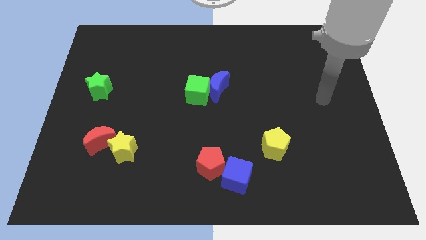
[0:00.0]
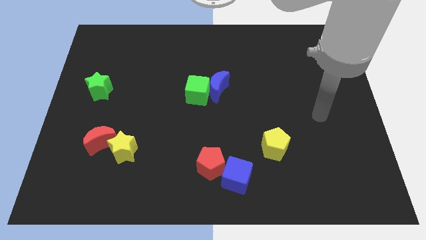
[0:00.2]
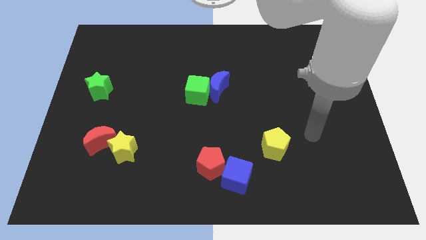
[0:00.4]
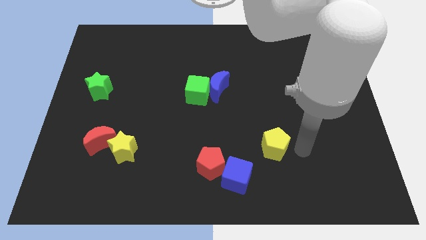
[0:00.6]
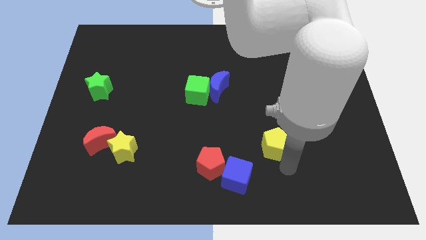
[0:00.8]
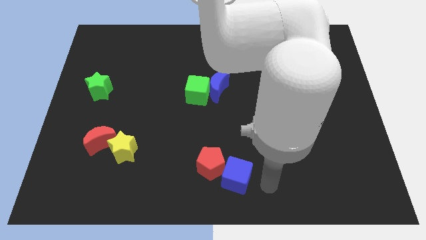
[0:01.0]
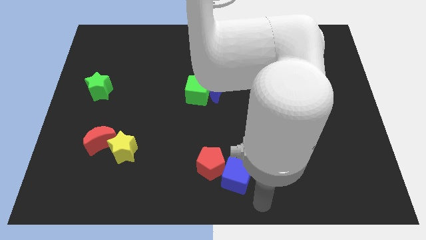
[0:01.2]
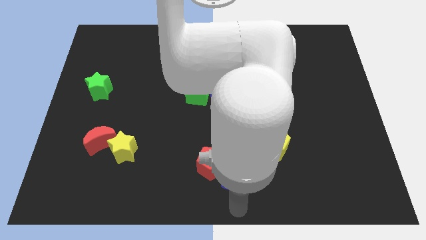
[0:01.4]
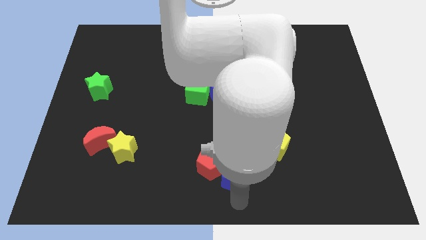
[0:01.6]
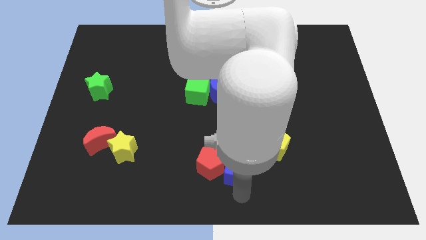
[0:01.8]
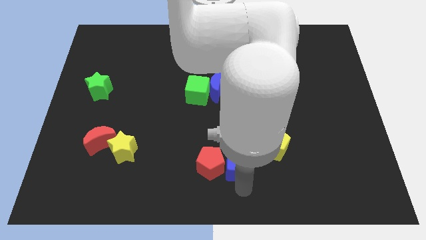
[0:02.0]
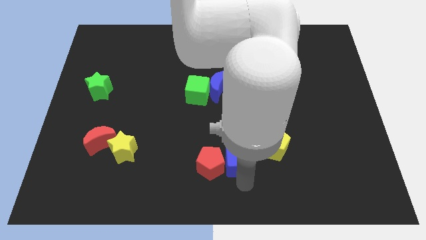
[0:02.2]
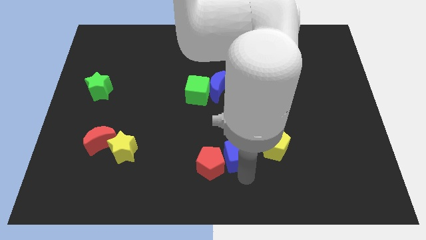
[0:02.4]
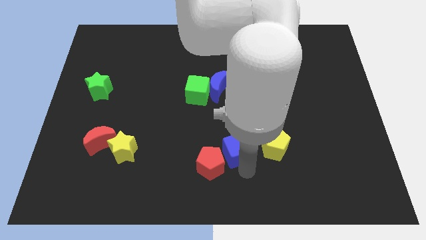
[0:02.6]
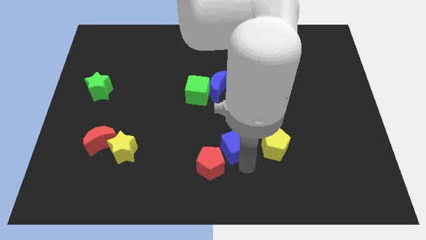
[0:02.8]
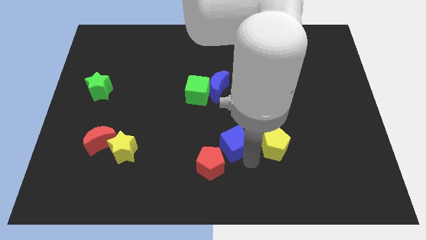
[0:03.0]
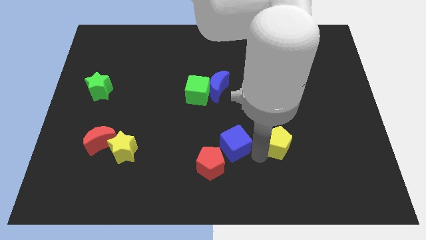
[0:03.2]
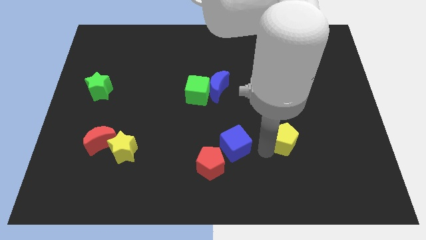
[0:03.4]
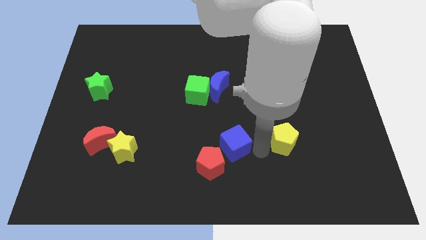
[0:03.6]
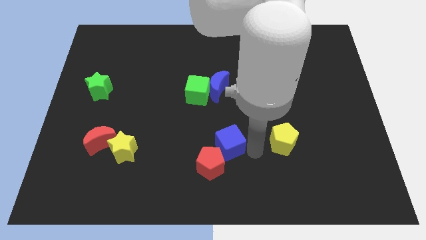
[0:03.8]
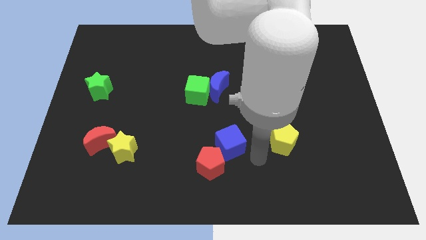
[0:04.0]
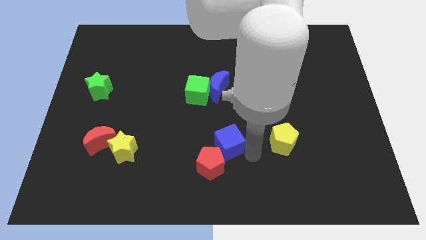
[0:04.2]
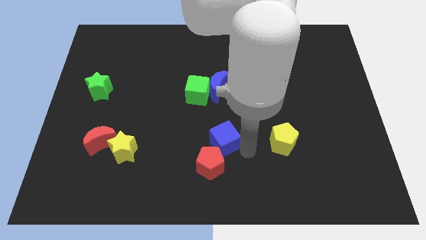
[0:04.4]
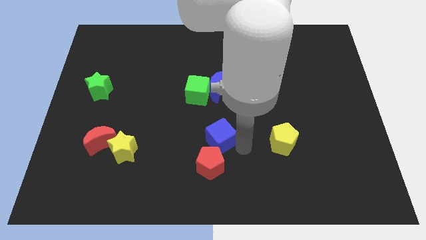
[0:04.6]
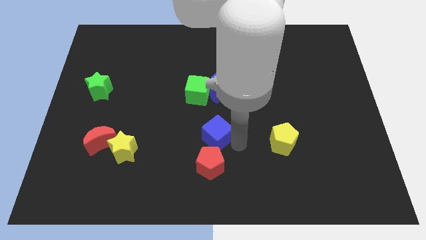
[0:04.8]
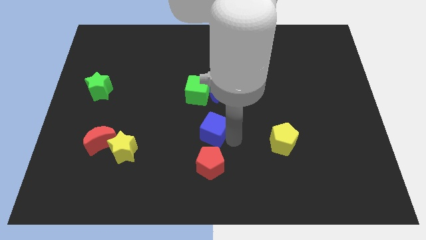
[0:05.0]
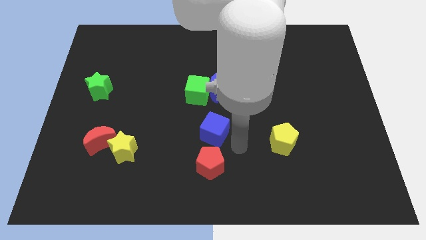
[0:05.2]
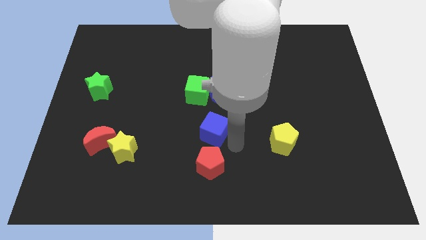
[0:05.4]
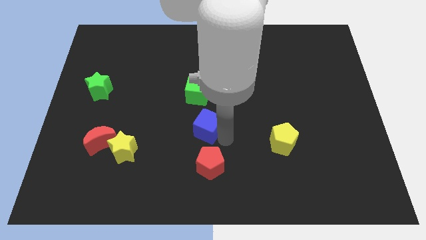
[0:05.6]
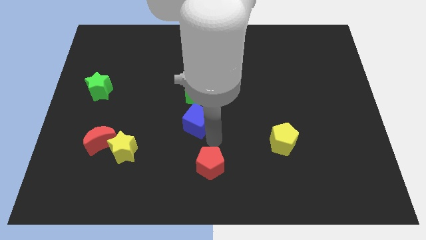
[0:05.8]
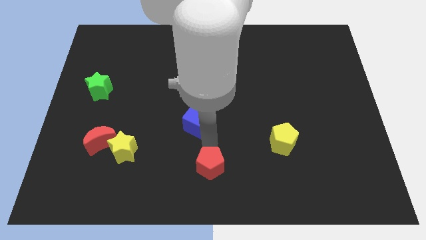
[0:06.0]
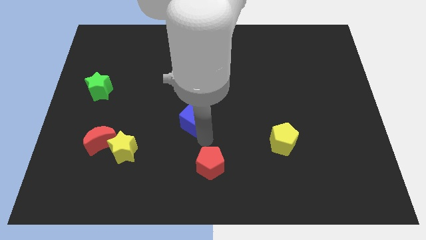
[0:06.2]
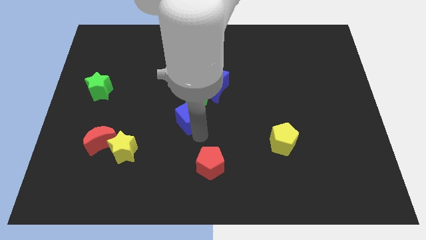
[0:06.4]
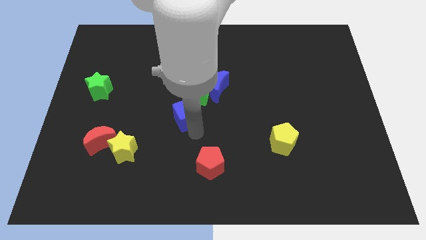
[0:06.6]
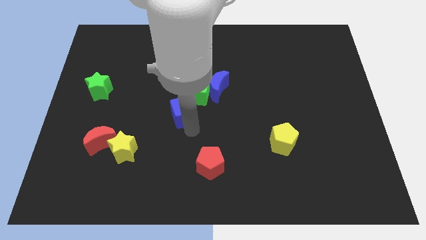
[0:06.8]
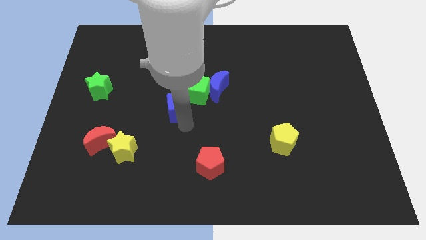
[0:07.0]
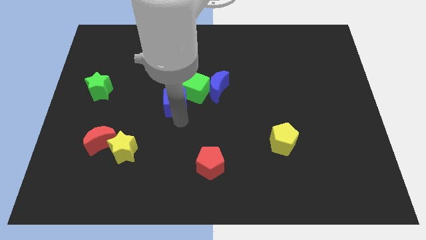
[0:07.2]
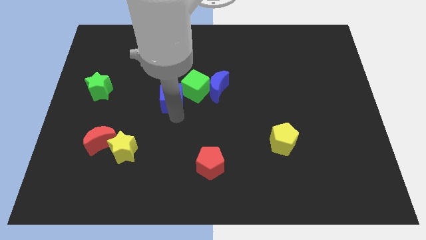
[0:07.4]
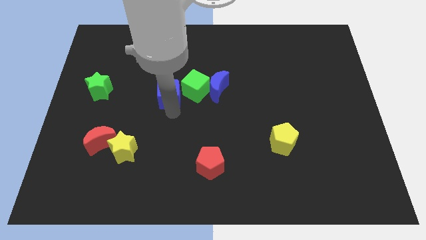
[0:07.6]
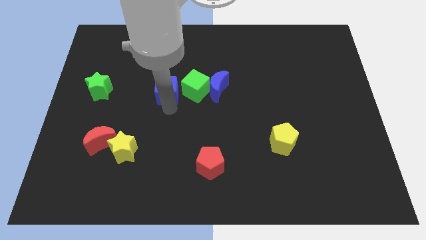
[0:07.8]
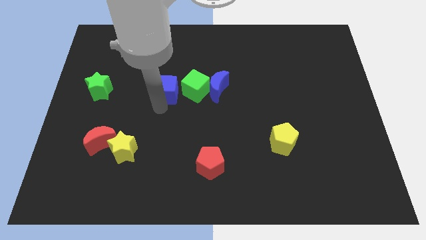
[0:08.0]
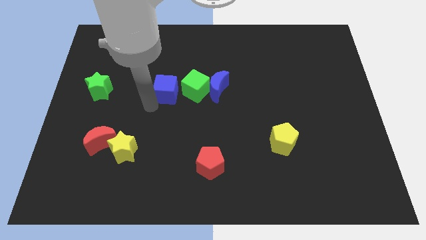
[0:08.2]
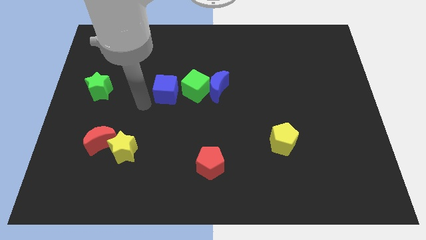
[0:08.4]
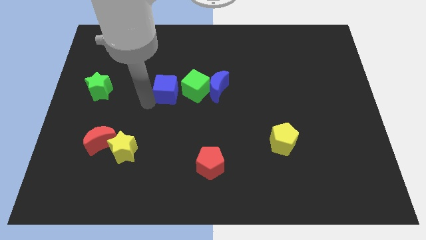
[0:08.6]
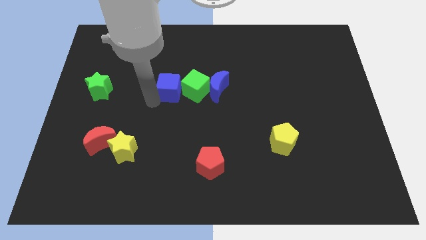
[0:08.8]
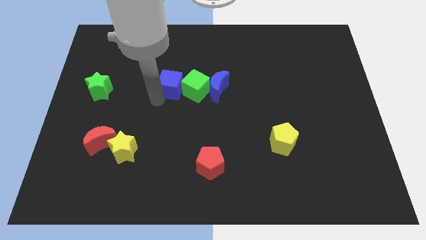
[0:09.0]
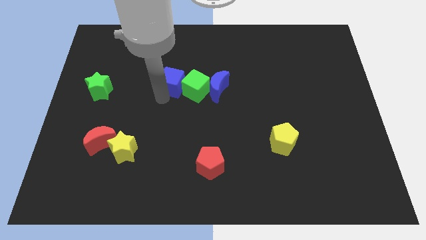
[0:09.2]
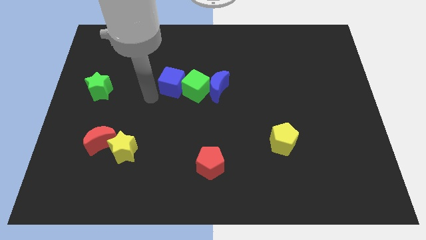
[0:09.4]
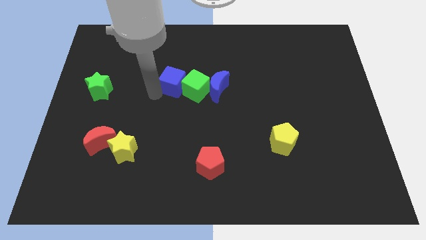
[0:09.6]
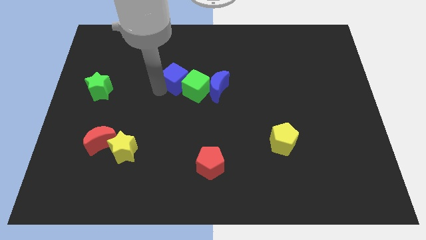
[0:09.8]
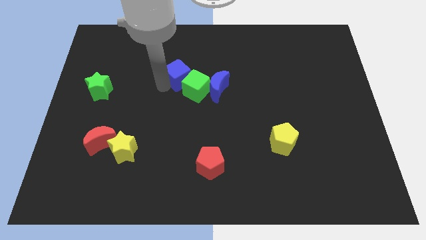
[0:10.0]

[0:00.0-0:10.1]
push the blue cube to the top left of the blue moon

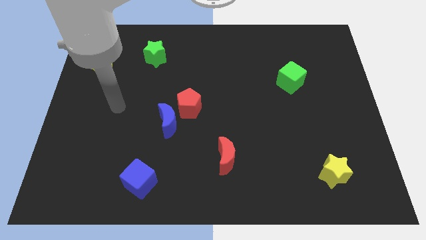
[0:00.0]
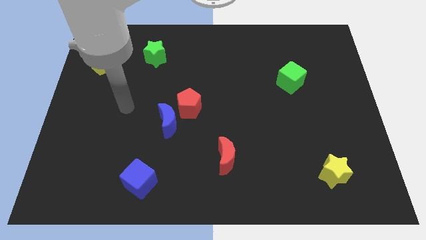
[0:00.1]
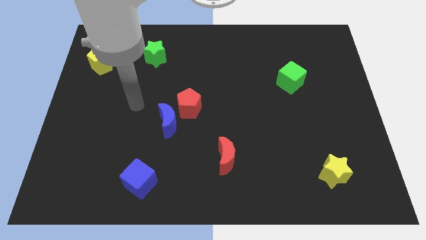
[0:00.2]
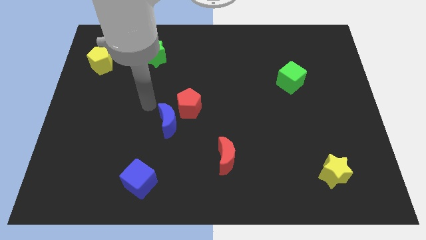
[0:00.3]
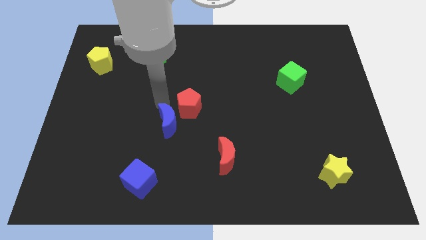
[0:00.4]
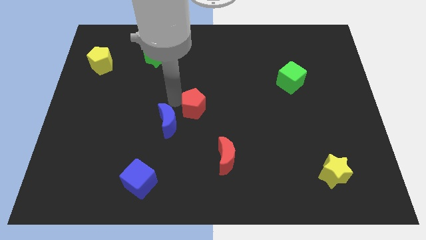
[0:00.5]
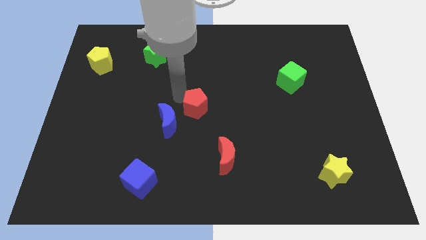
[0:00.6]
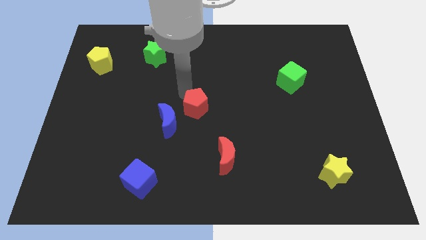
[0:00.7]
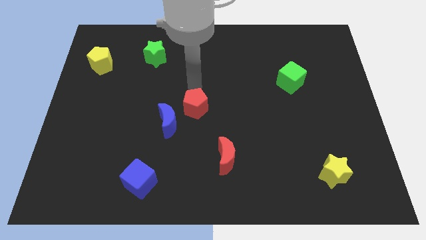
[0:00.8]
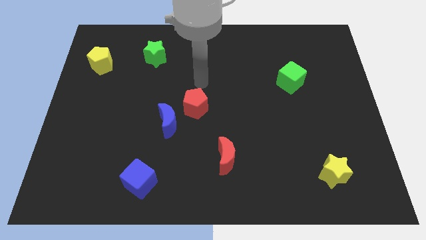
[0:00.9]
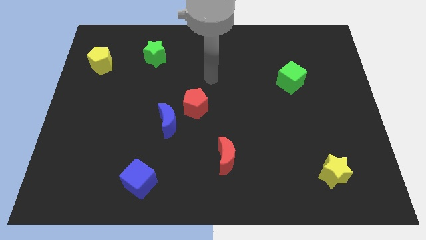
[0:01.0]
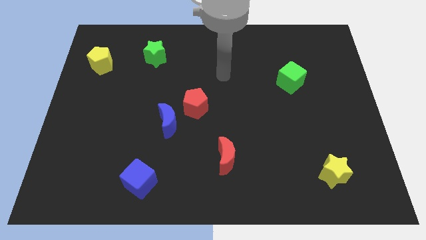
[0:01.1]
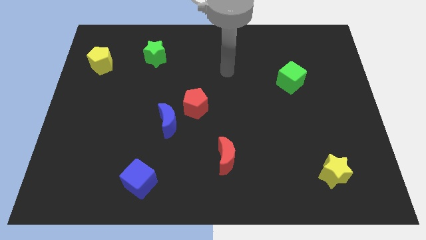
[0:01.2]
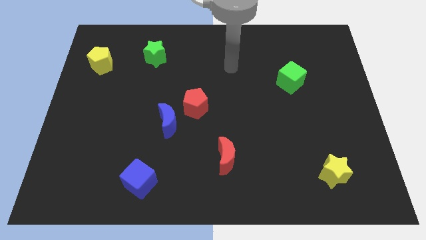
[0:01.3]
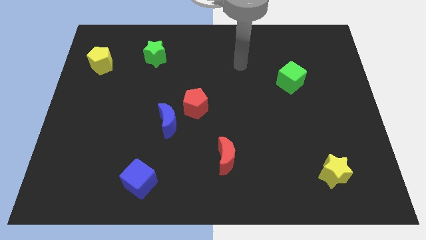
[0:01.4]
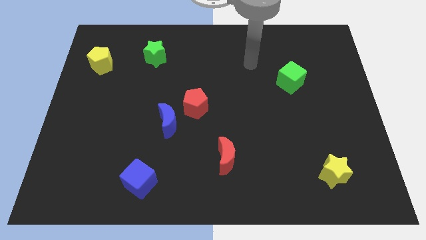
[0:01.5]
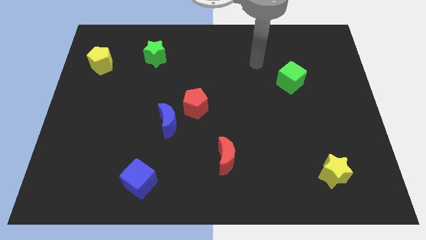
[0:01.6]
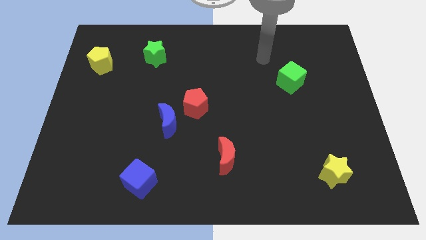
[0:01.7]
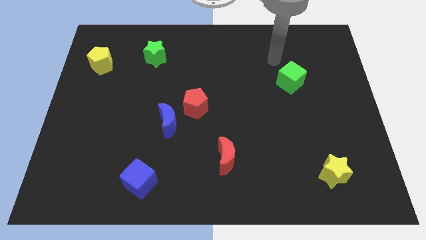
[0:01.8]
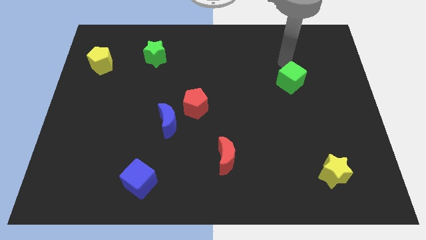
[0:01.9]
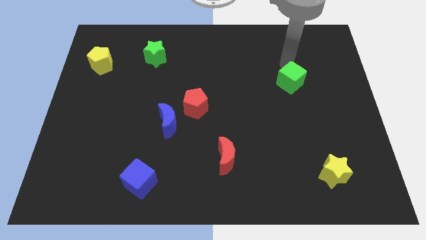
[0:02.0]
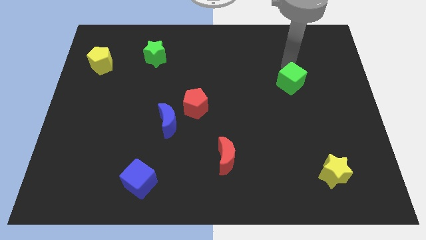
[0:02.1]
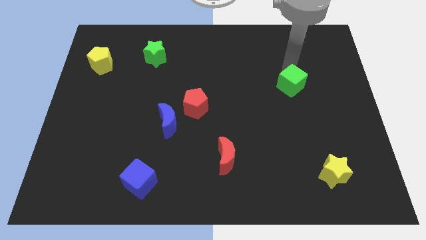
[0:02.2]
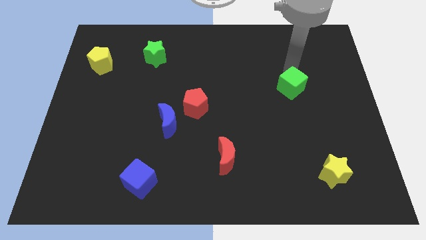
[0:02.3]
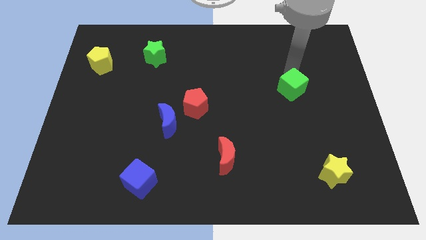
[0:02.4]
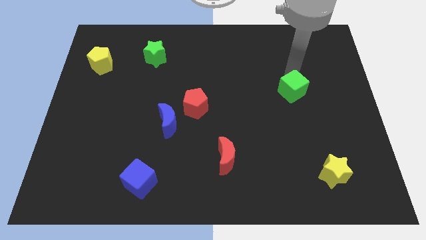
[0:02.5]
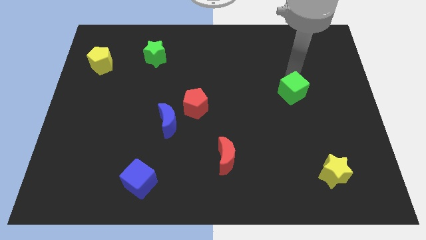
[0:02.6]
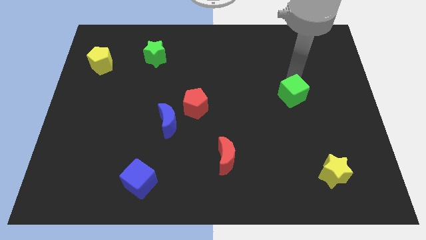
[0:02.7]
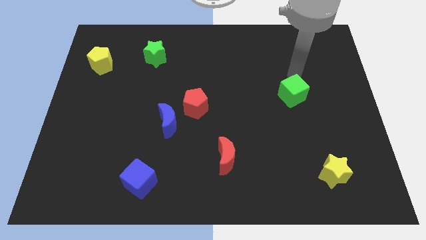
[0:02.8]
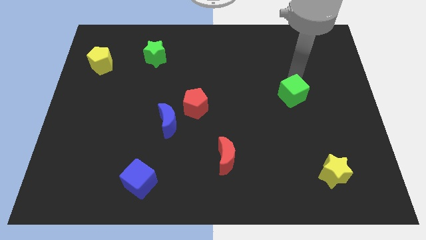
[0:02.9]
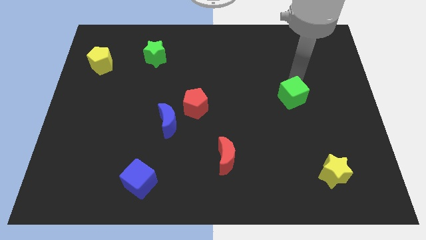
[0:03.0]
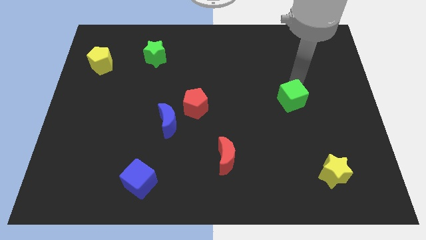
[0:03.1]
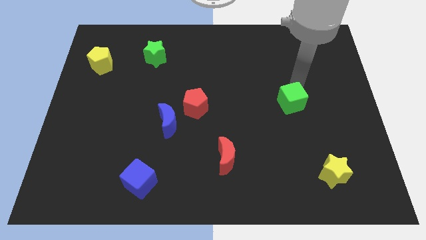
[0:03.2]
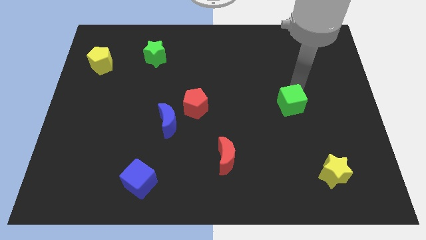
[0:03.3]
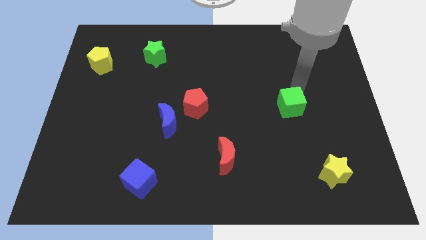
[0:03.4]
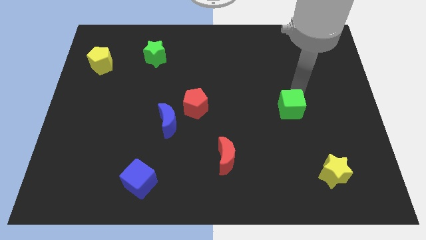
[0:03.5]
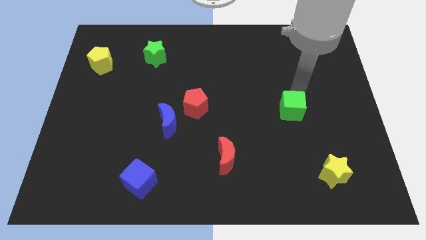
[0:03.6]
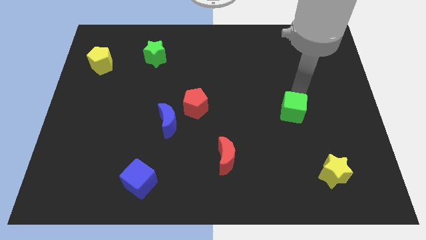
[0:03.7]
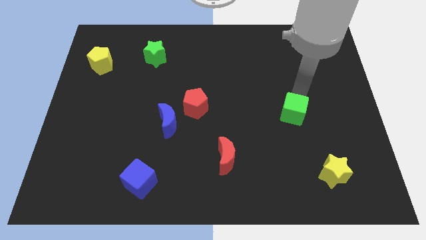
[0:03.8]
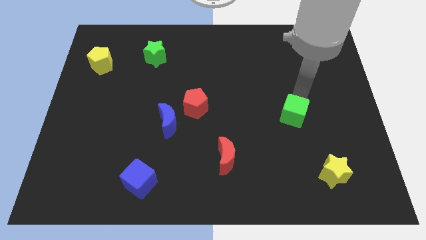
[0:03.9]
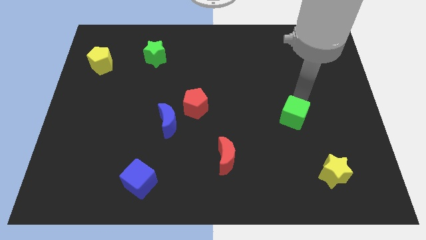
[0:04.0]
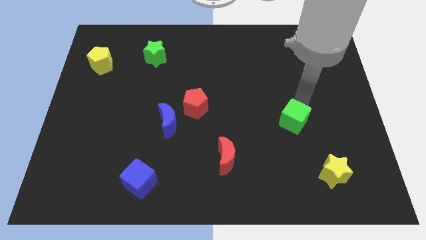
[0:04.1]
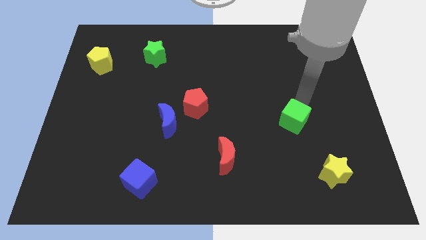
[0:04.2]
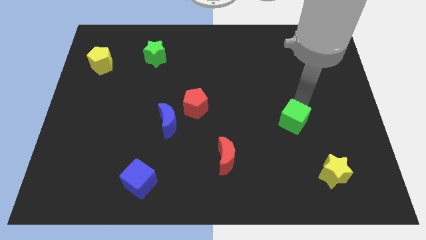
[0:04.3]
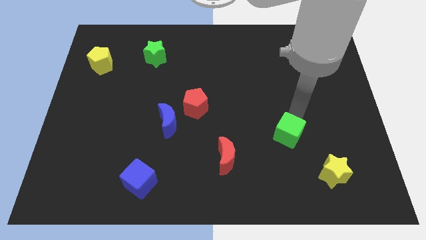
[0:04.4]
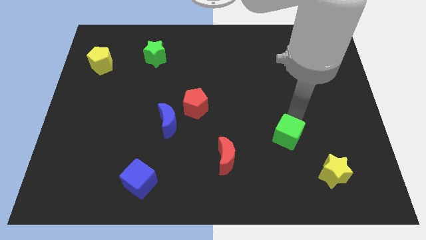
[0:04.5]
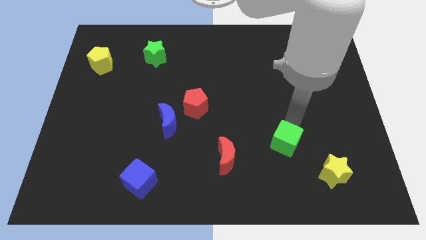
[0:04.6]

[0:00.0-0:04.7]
push the green cube right of the red moon
